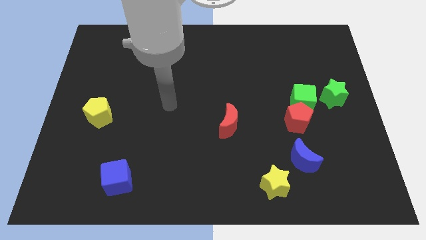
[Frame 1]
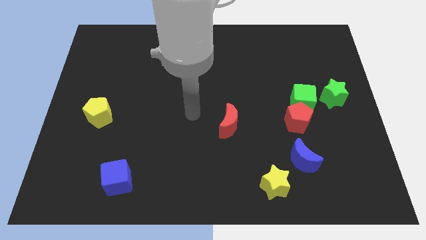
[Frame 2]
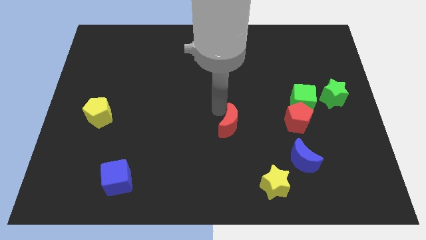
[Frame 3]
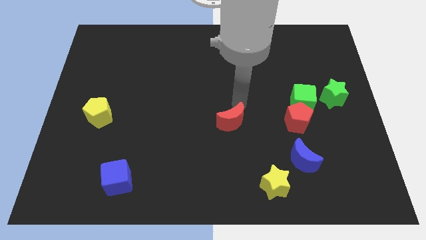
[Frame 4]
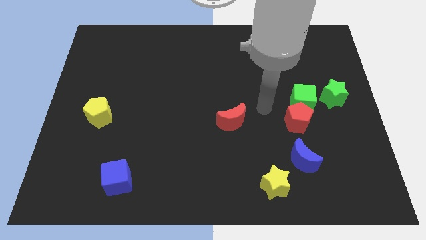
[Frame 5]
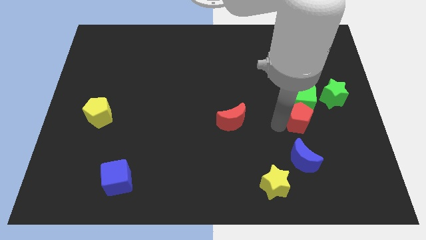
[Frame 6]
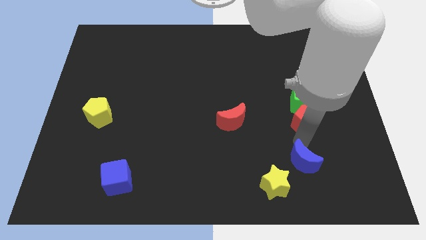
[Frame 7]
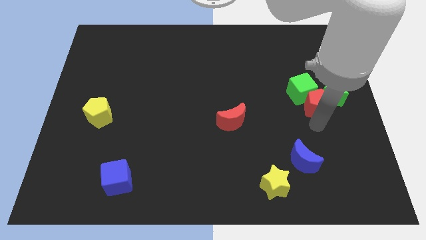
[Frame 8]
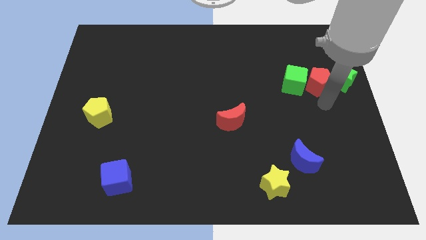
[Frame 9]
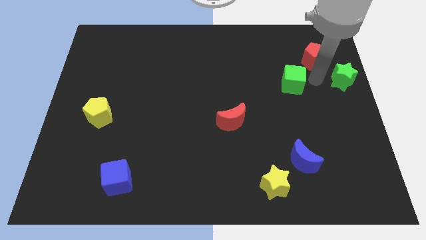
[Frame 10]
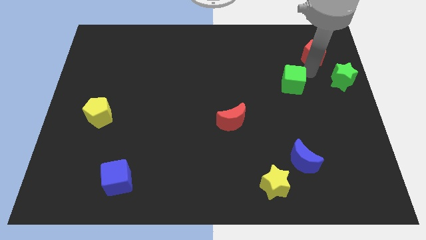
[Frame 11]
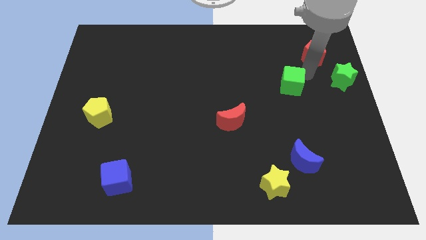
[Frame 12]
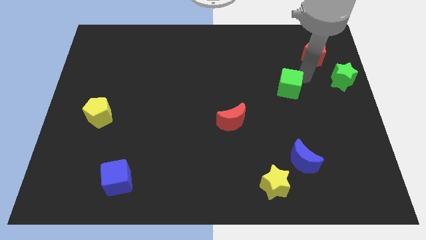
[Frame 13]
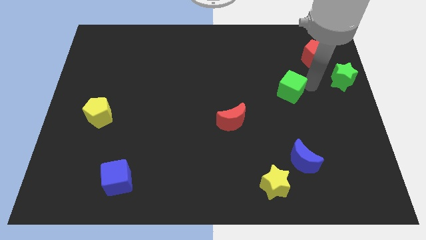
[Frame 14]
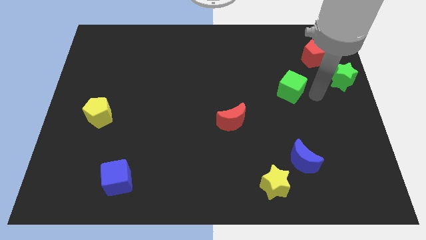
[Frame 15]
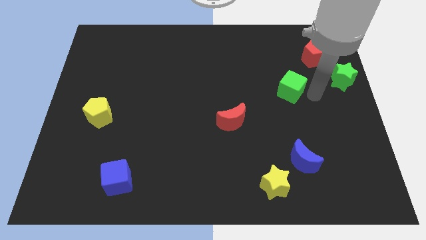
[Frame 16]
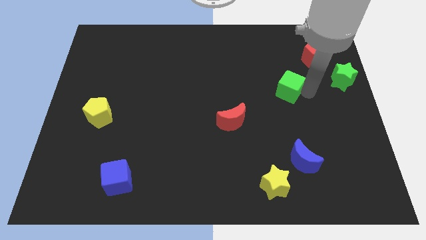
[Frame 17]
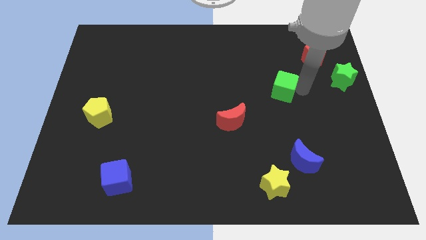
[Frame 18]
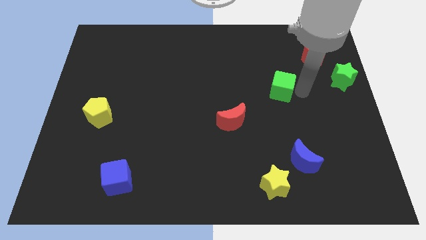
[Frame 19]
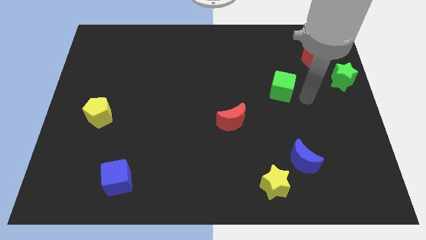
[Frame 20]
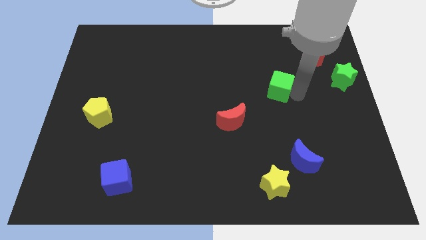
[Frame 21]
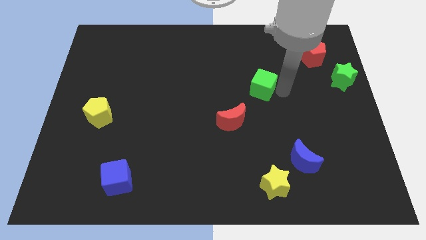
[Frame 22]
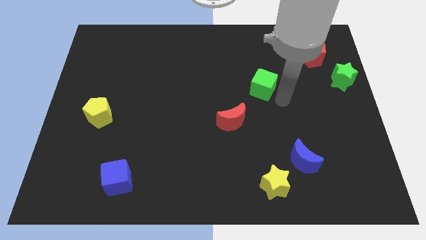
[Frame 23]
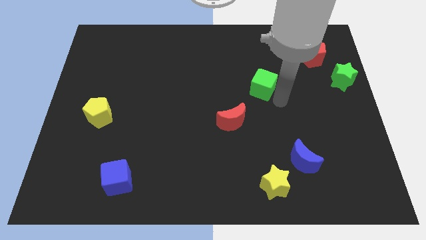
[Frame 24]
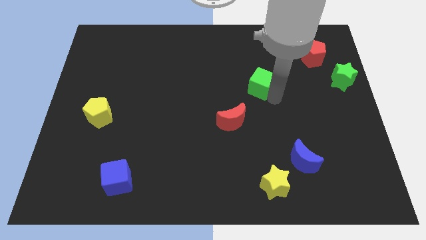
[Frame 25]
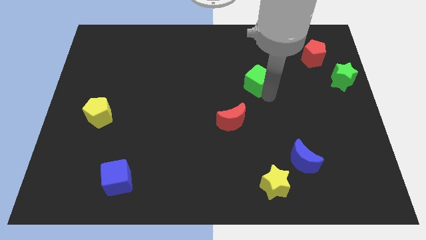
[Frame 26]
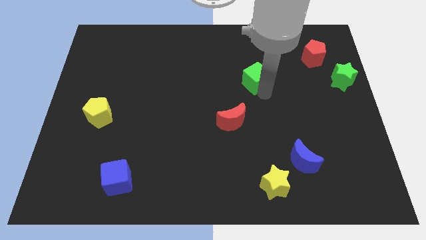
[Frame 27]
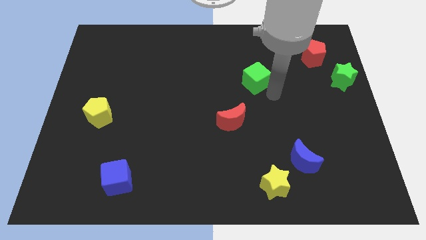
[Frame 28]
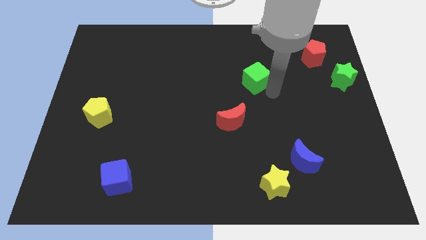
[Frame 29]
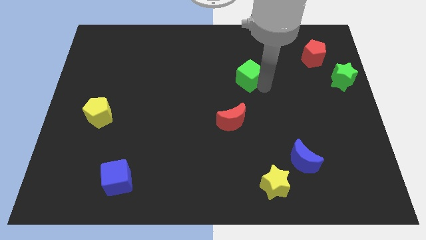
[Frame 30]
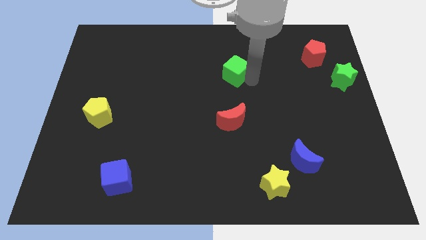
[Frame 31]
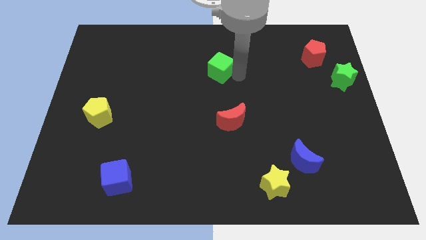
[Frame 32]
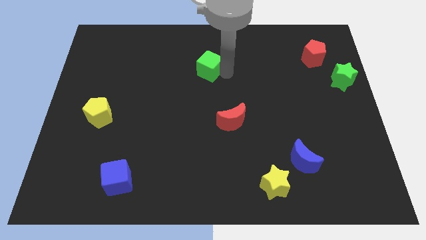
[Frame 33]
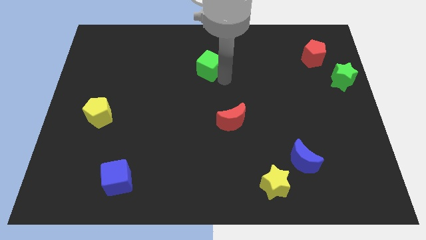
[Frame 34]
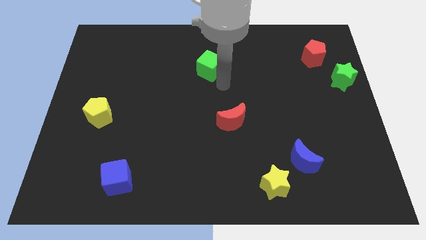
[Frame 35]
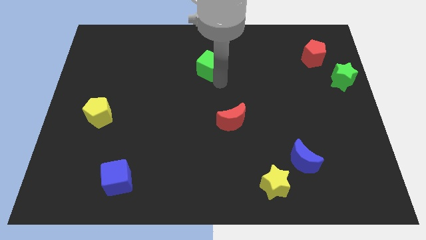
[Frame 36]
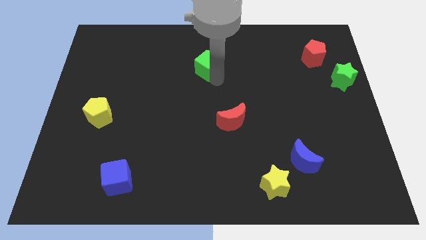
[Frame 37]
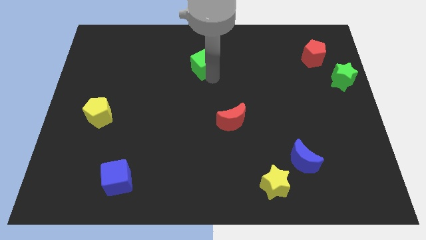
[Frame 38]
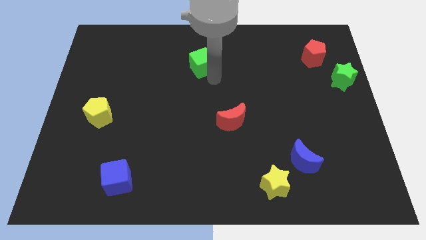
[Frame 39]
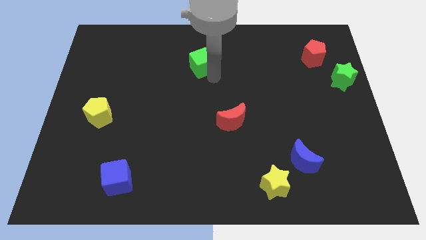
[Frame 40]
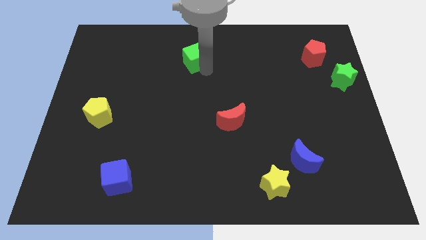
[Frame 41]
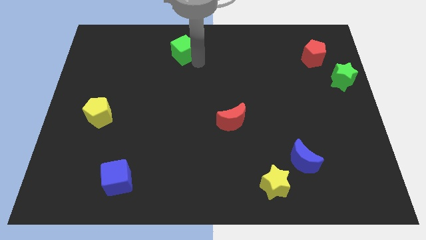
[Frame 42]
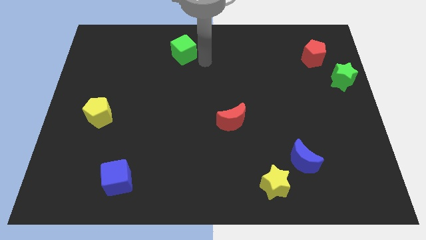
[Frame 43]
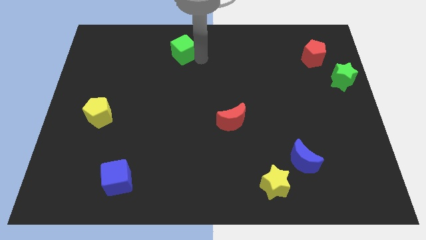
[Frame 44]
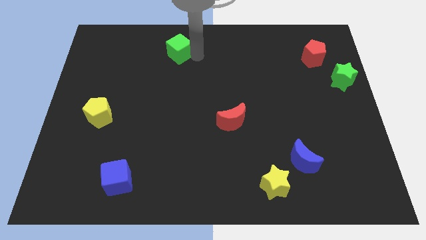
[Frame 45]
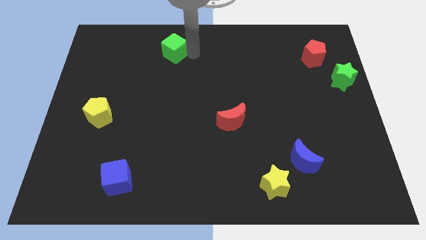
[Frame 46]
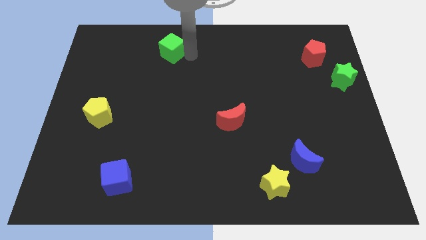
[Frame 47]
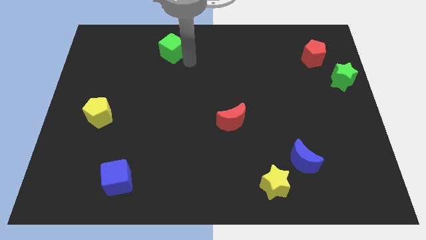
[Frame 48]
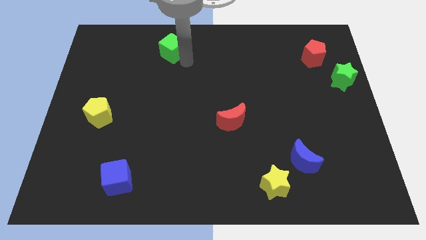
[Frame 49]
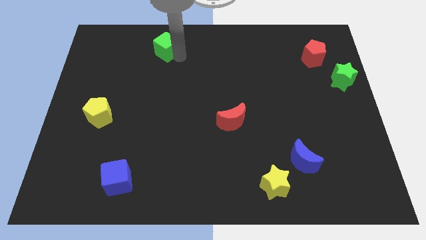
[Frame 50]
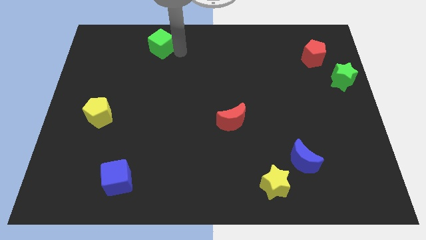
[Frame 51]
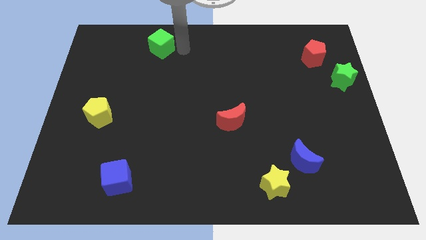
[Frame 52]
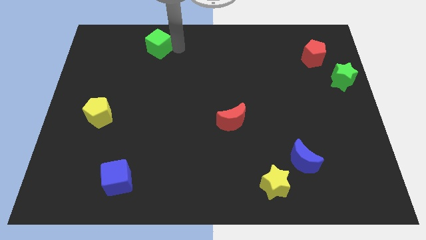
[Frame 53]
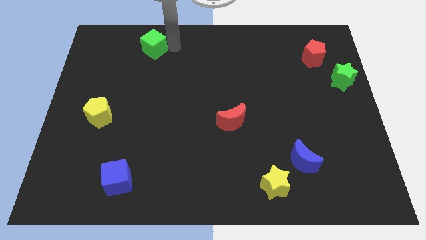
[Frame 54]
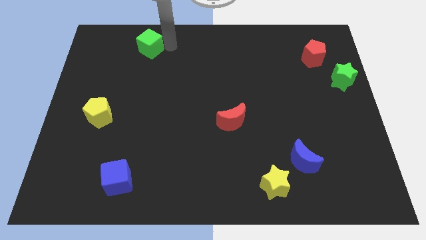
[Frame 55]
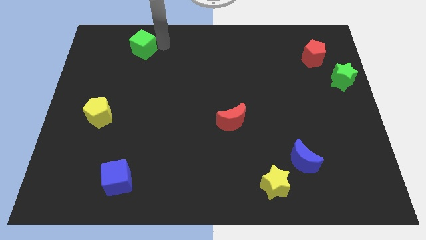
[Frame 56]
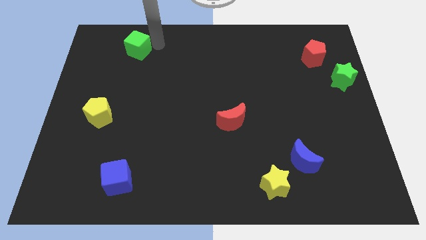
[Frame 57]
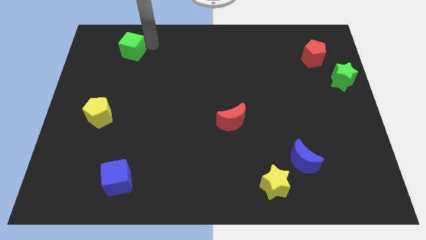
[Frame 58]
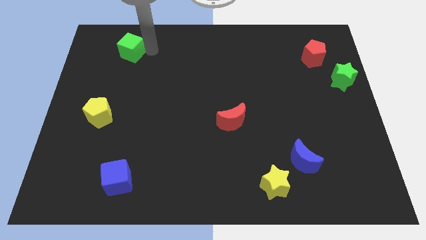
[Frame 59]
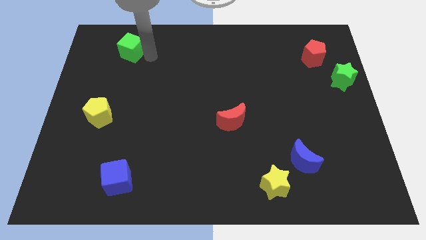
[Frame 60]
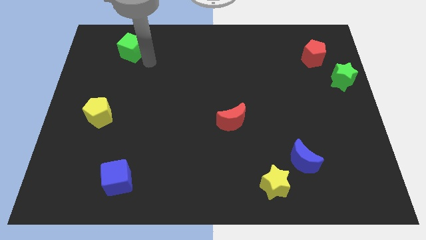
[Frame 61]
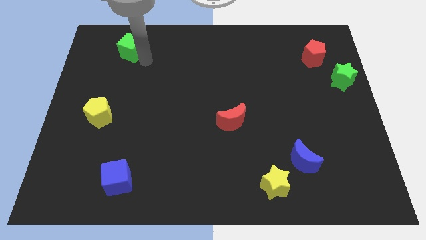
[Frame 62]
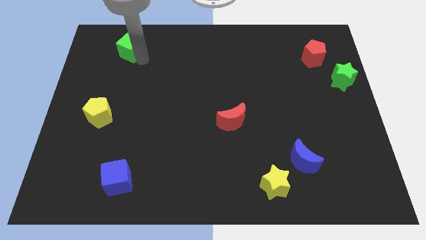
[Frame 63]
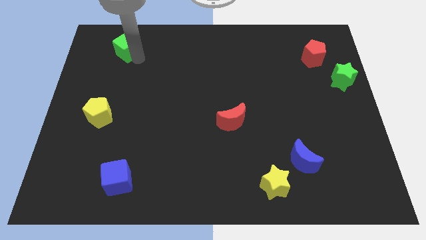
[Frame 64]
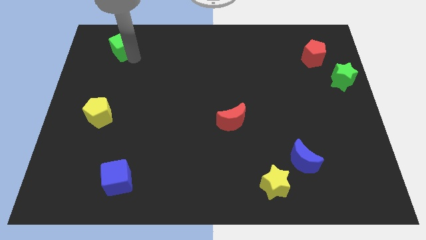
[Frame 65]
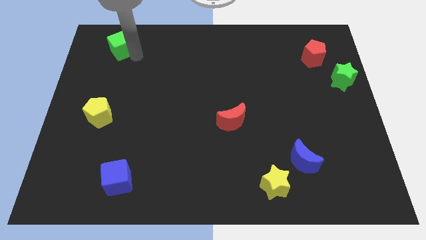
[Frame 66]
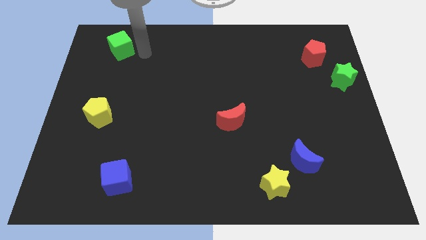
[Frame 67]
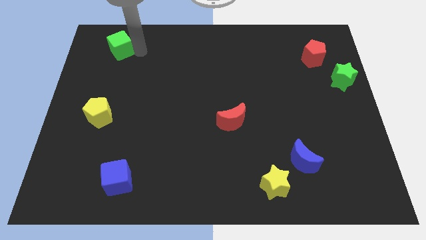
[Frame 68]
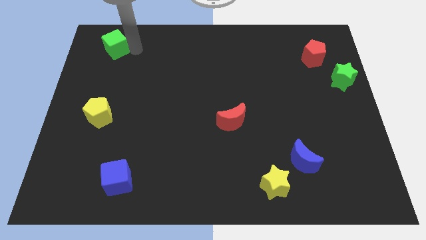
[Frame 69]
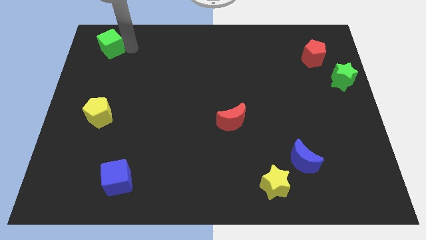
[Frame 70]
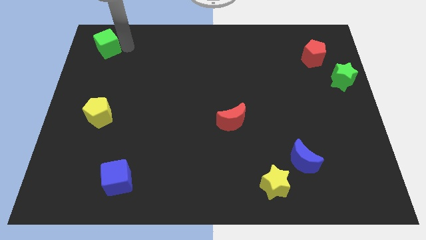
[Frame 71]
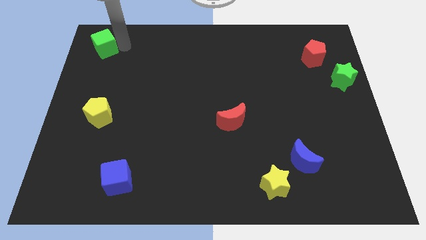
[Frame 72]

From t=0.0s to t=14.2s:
put the green cube to the top left
